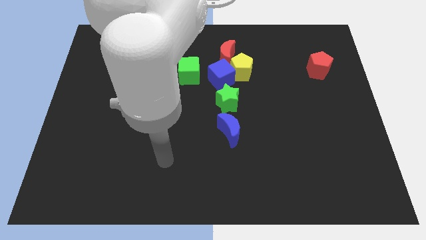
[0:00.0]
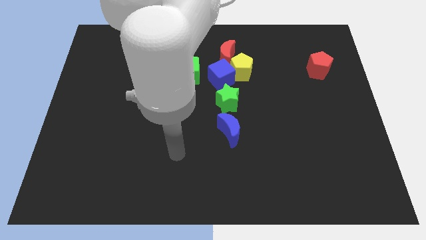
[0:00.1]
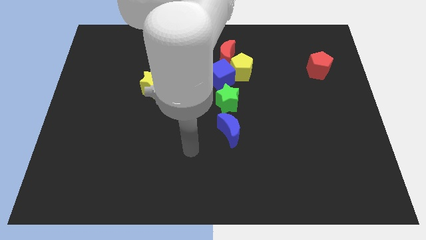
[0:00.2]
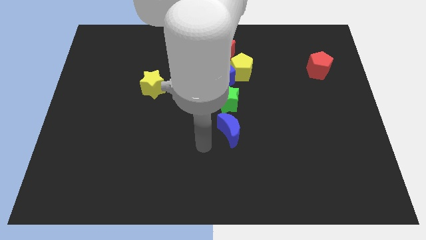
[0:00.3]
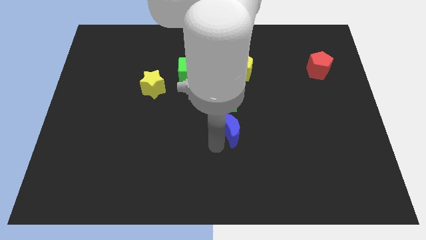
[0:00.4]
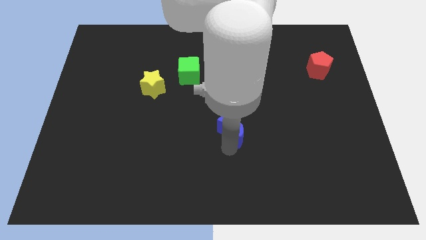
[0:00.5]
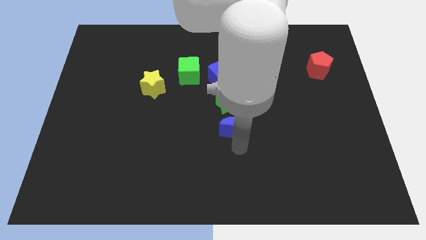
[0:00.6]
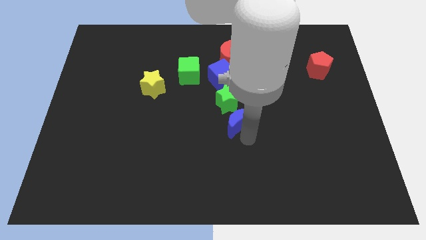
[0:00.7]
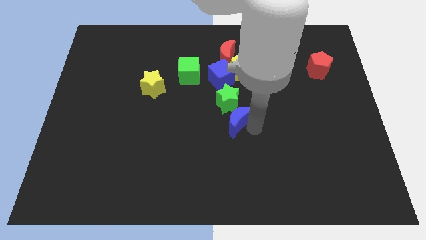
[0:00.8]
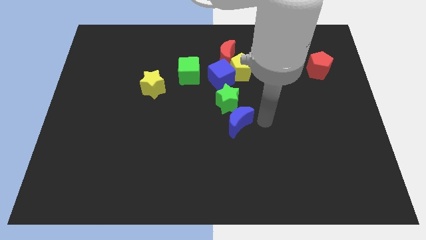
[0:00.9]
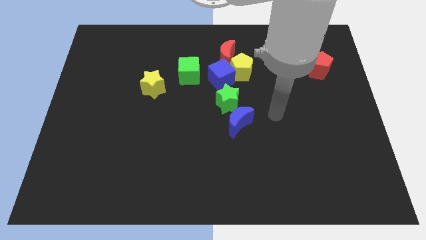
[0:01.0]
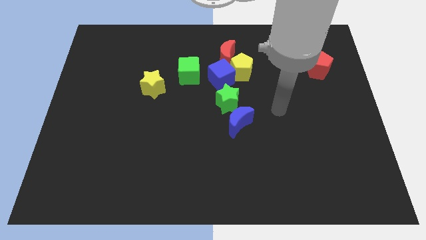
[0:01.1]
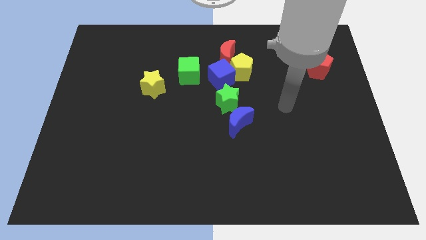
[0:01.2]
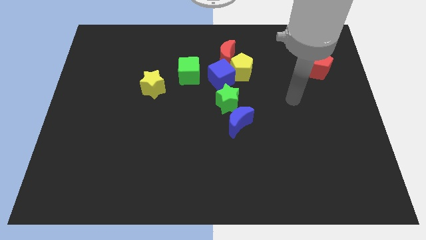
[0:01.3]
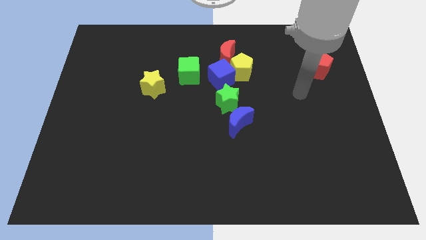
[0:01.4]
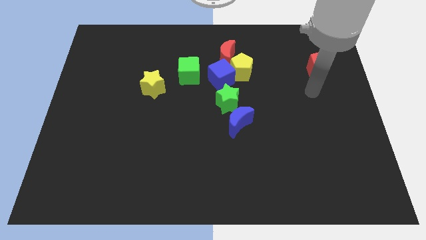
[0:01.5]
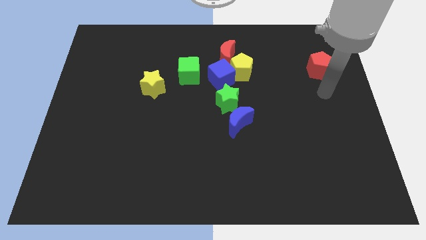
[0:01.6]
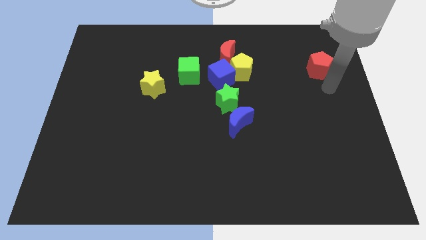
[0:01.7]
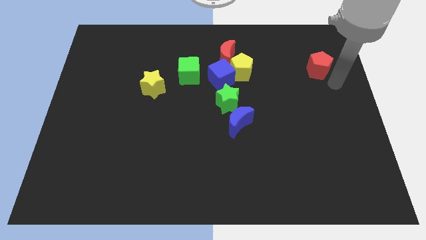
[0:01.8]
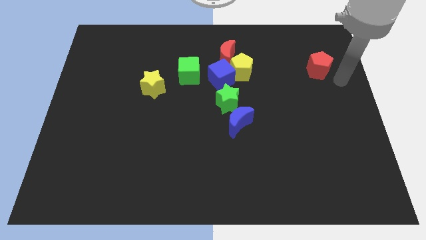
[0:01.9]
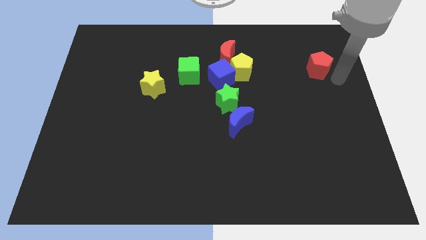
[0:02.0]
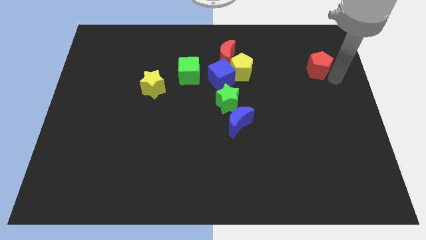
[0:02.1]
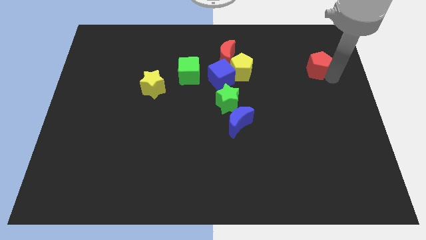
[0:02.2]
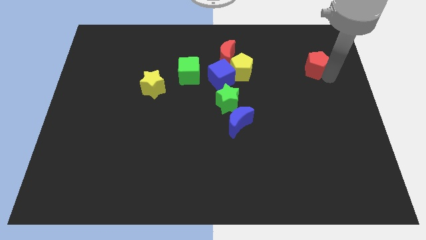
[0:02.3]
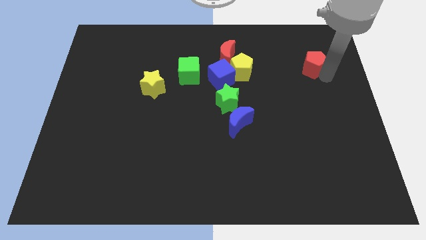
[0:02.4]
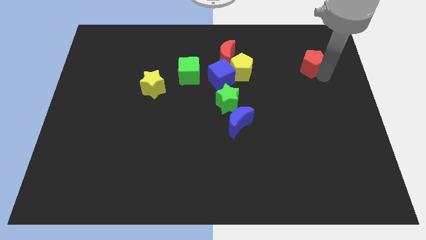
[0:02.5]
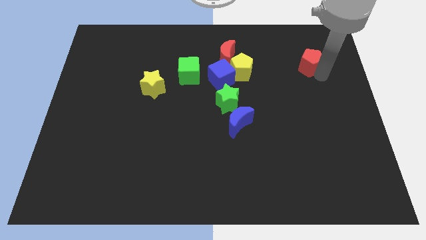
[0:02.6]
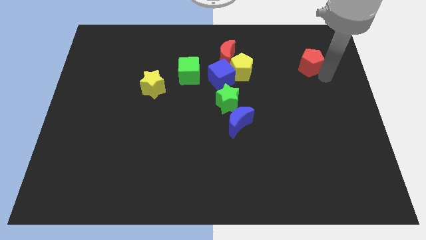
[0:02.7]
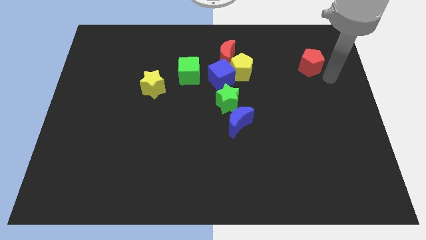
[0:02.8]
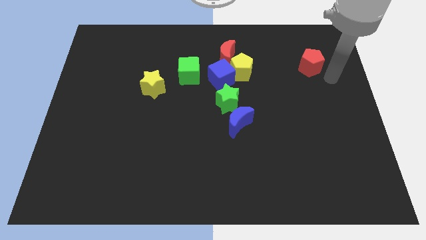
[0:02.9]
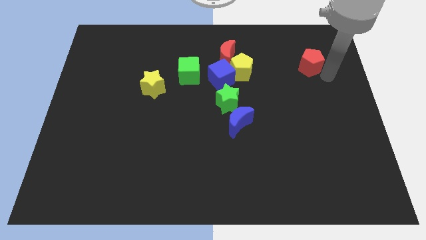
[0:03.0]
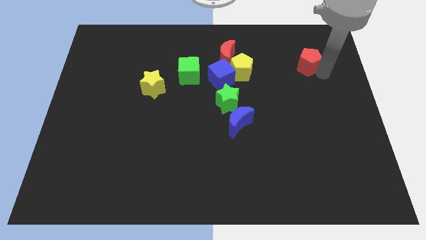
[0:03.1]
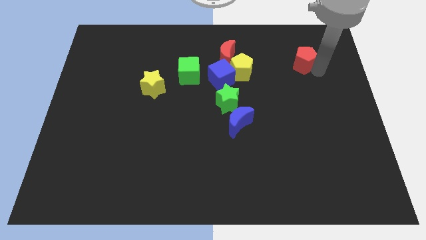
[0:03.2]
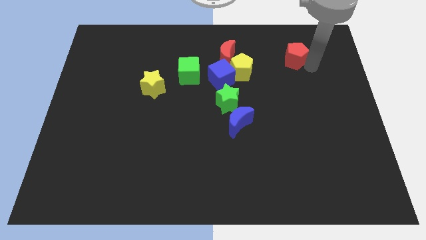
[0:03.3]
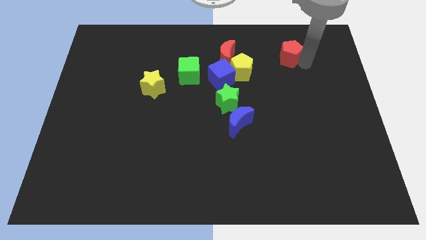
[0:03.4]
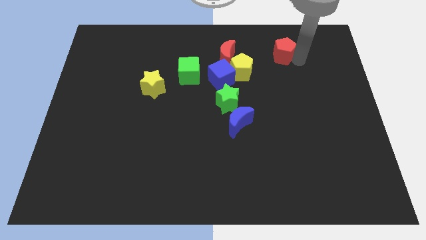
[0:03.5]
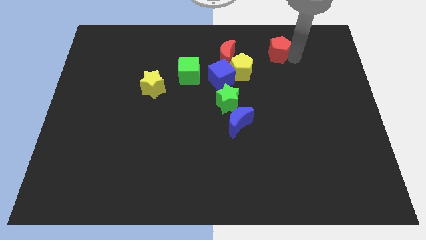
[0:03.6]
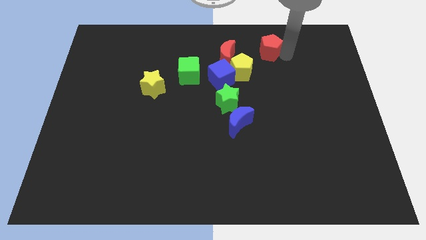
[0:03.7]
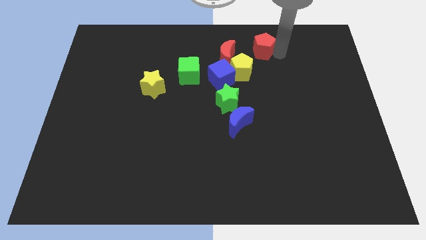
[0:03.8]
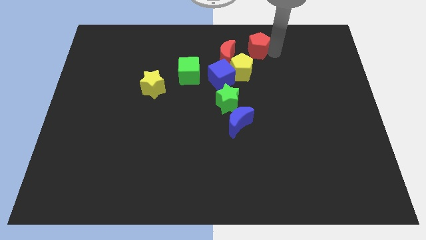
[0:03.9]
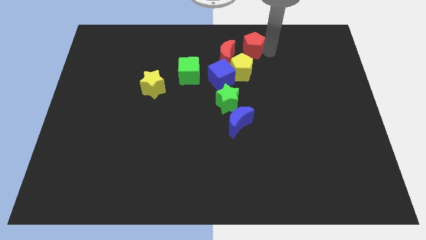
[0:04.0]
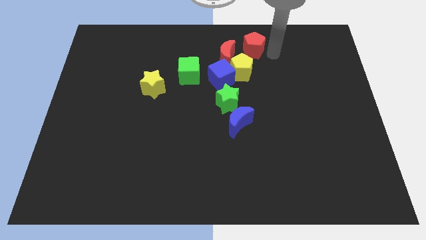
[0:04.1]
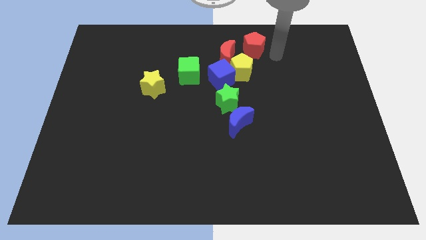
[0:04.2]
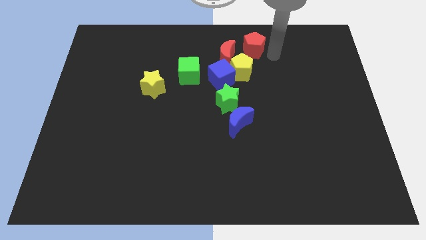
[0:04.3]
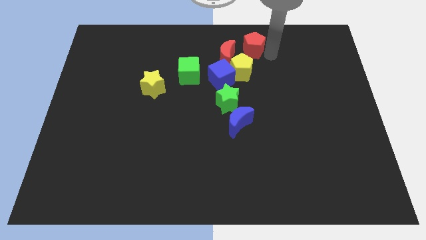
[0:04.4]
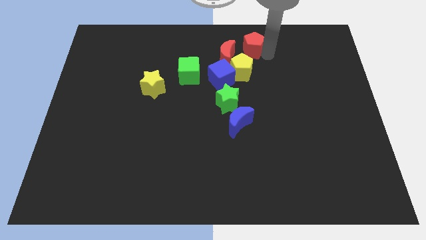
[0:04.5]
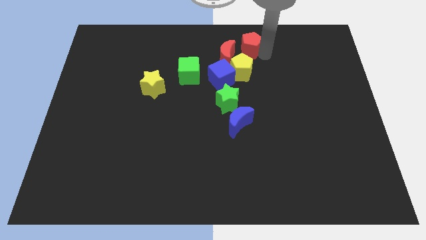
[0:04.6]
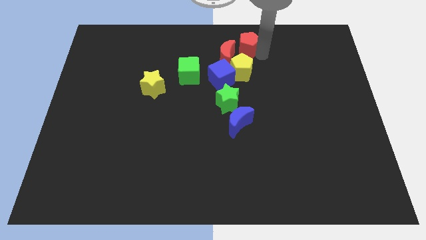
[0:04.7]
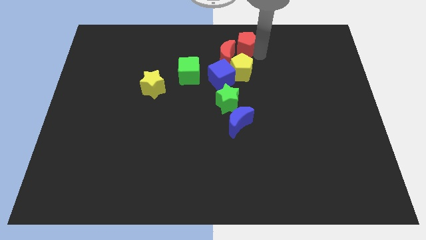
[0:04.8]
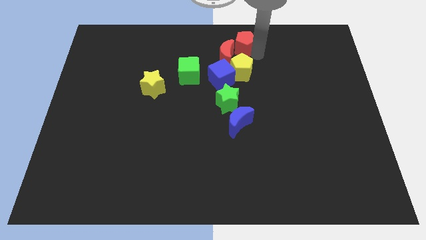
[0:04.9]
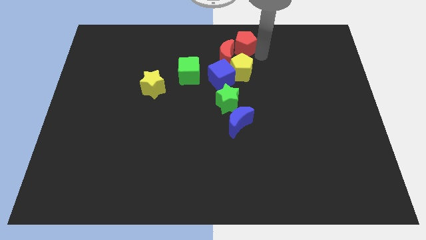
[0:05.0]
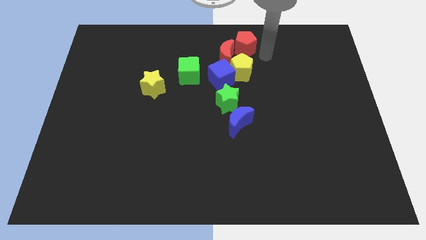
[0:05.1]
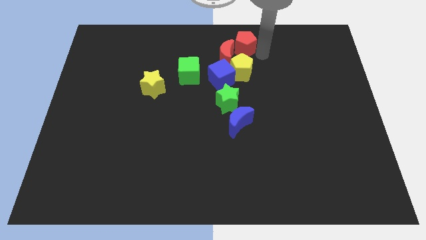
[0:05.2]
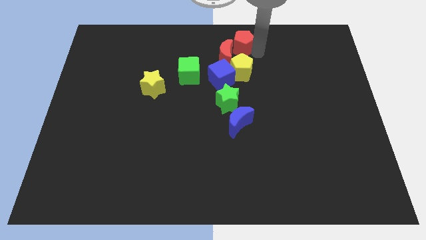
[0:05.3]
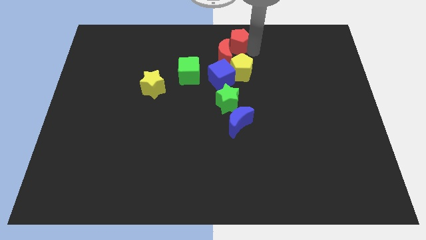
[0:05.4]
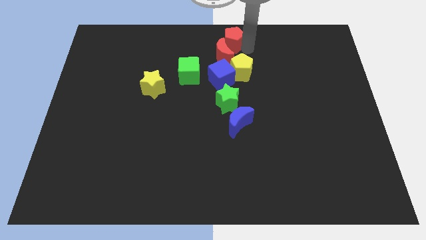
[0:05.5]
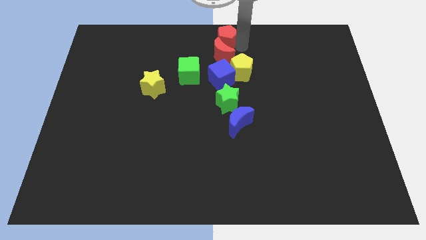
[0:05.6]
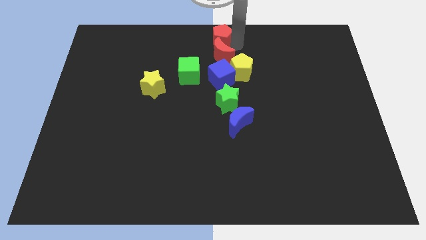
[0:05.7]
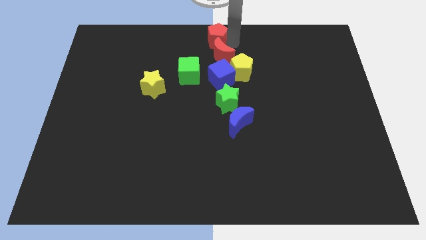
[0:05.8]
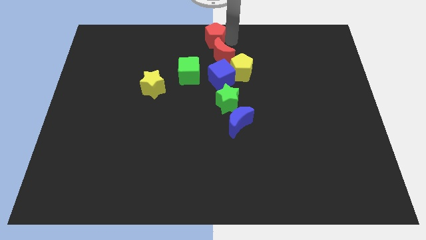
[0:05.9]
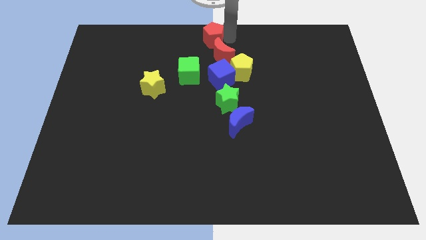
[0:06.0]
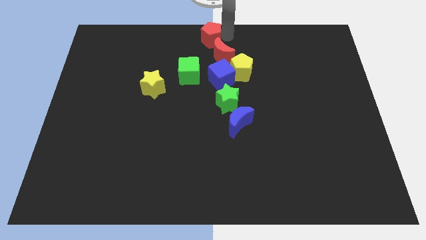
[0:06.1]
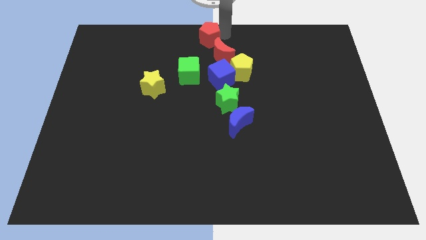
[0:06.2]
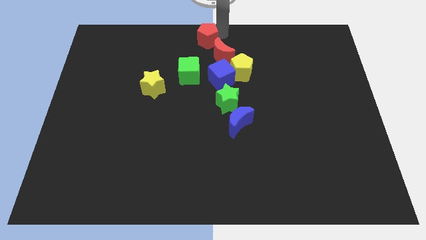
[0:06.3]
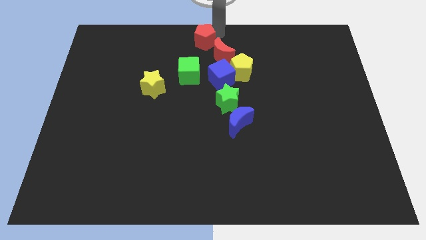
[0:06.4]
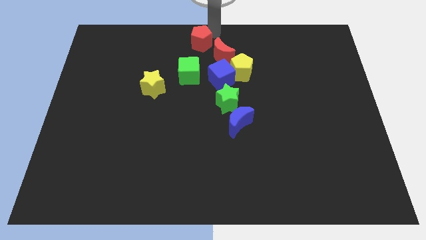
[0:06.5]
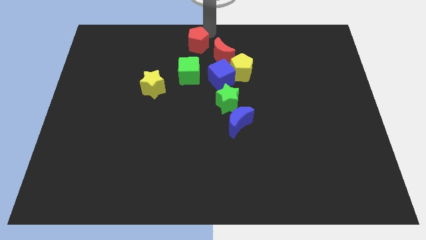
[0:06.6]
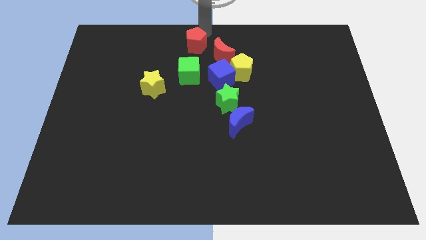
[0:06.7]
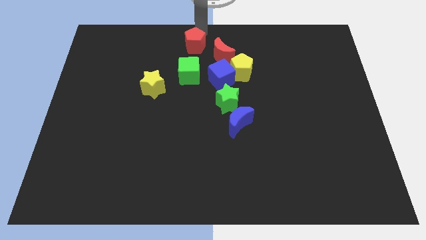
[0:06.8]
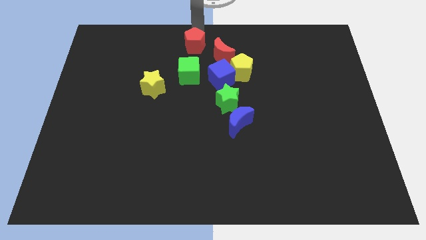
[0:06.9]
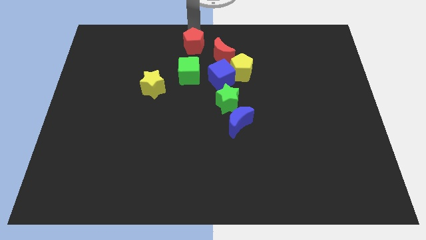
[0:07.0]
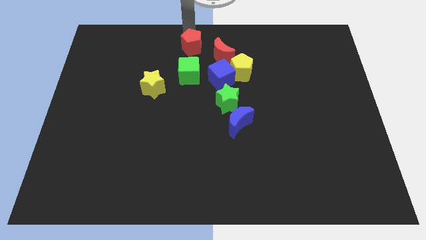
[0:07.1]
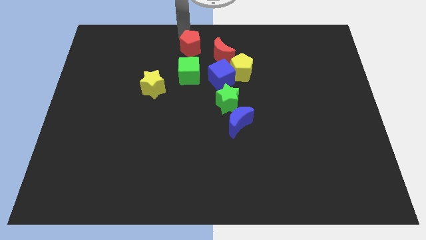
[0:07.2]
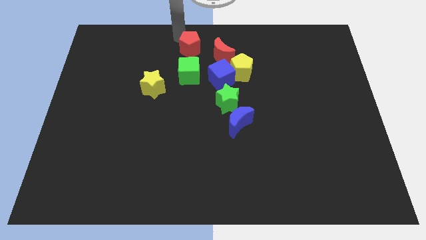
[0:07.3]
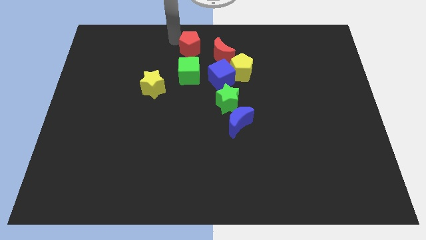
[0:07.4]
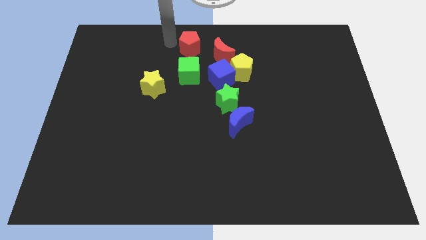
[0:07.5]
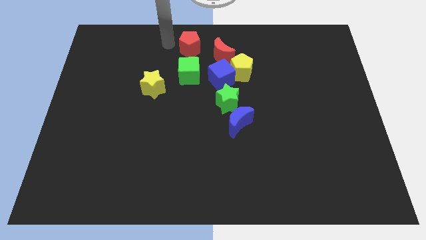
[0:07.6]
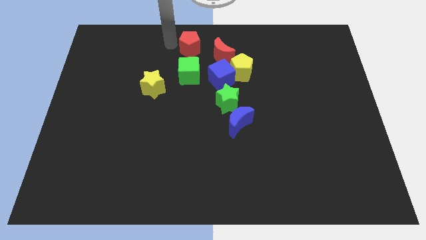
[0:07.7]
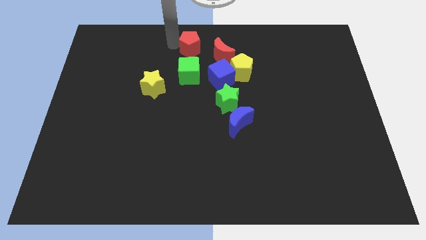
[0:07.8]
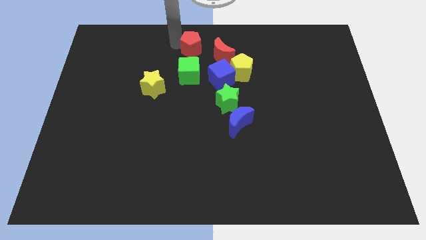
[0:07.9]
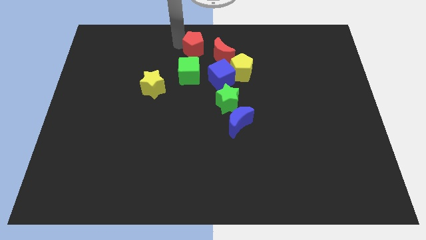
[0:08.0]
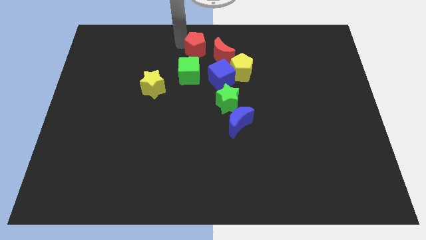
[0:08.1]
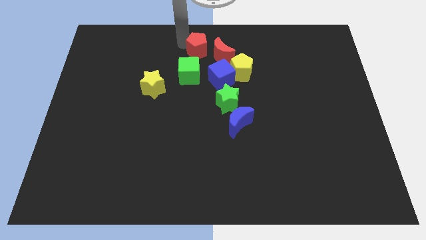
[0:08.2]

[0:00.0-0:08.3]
slide the red pentagon to the top right of the green cube
